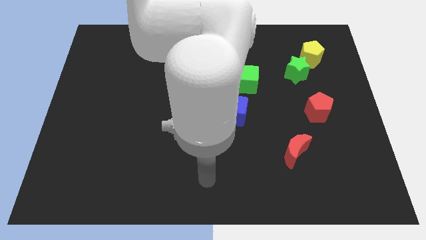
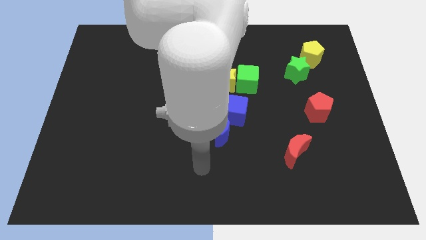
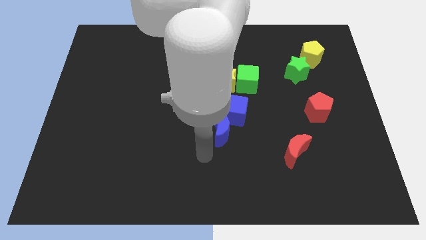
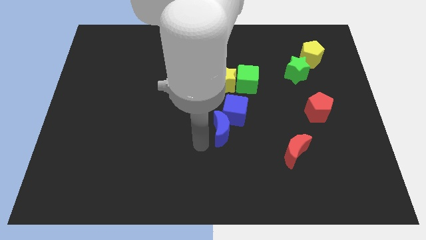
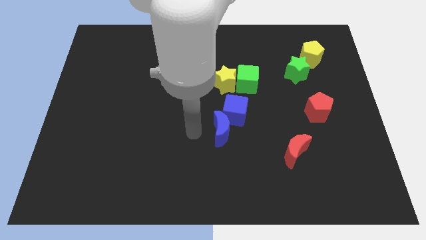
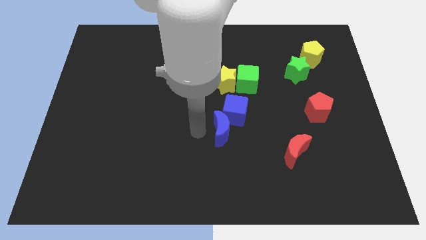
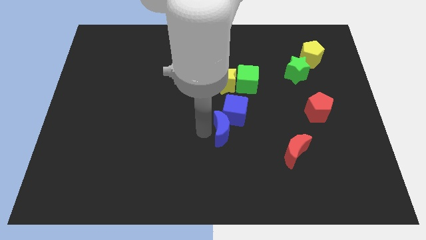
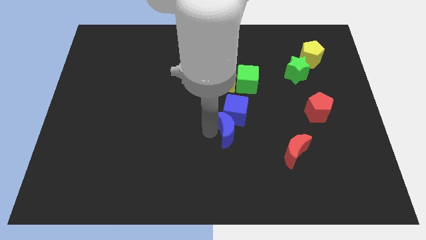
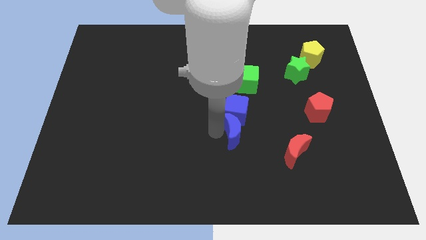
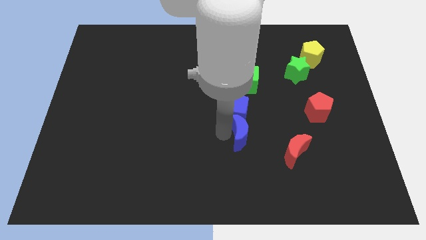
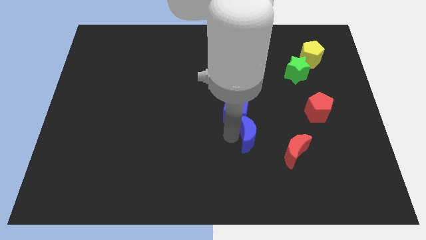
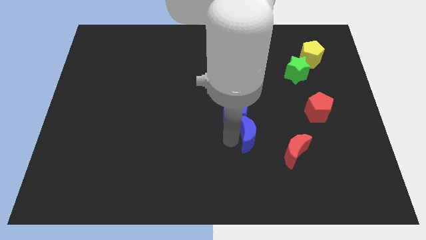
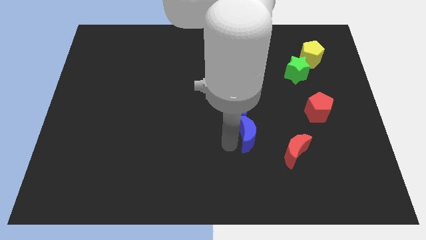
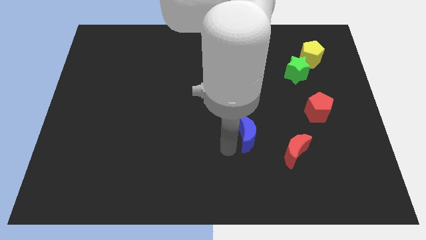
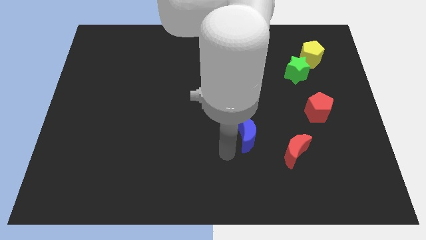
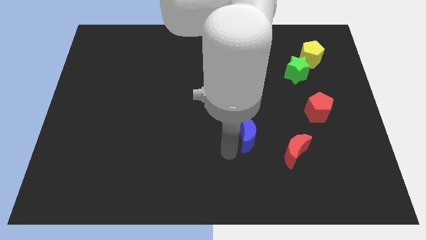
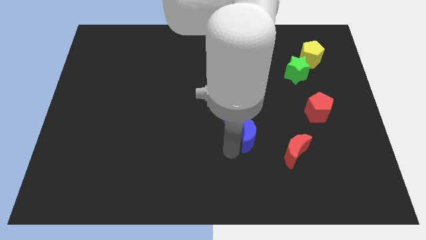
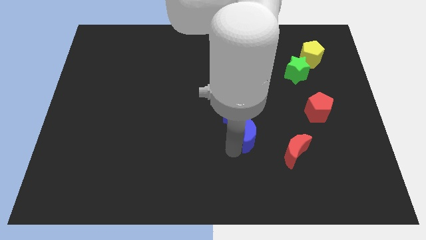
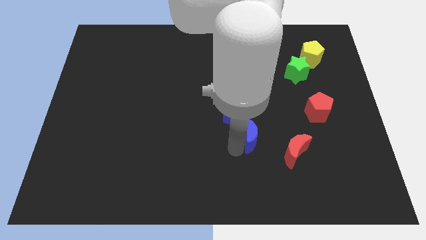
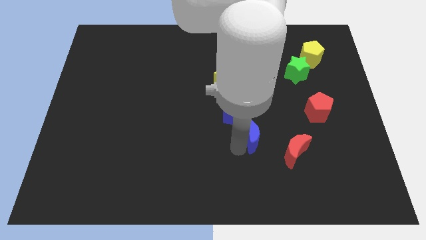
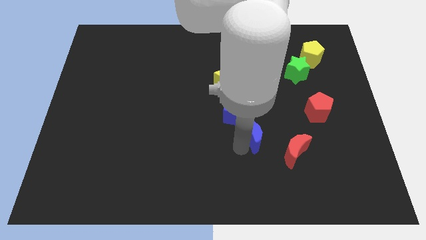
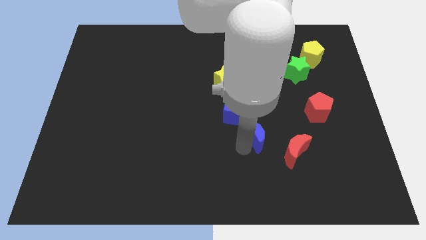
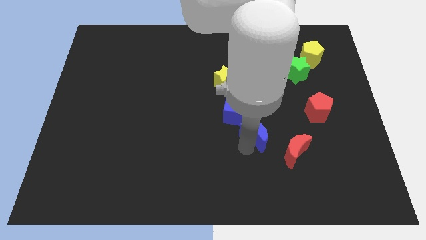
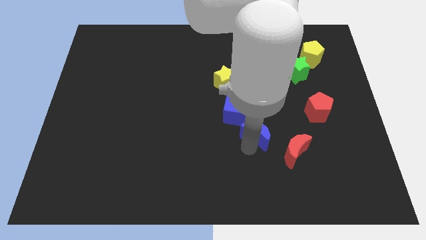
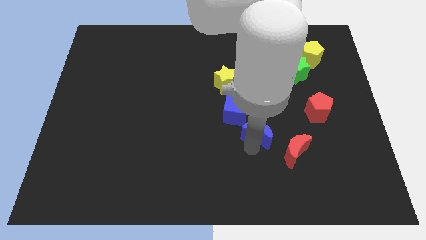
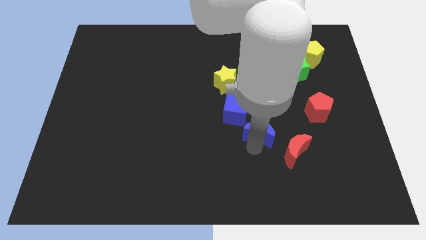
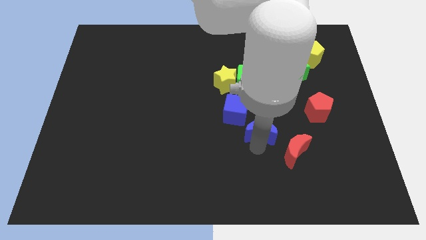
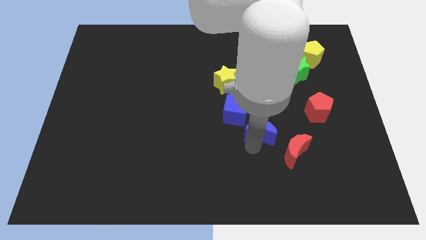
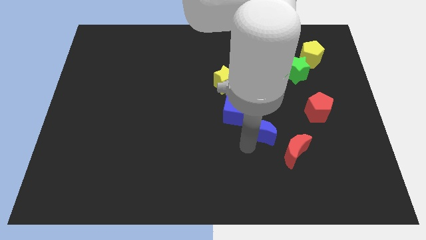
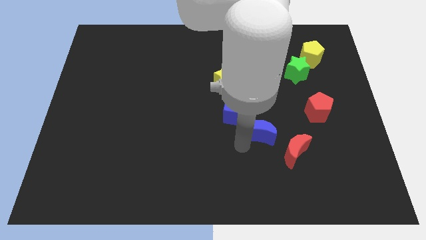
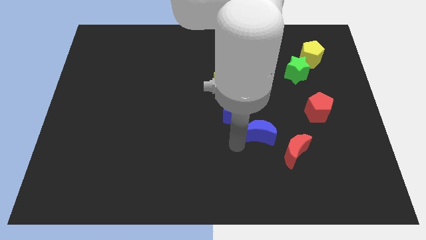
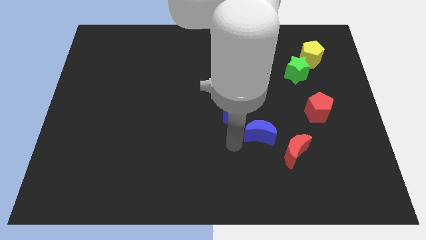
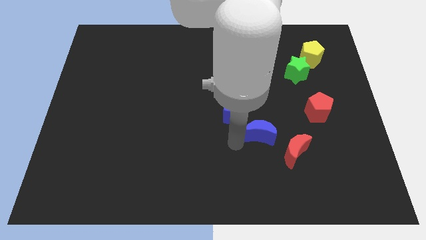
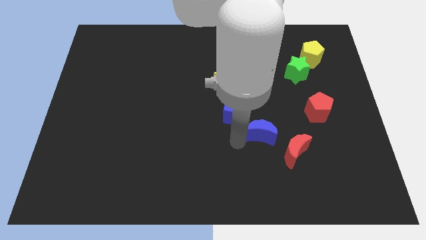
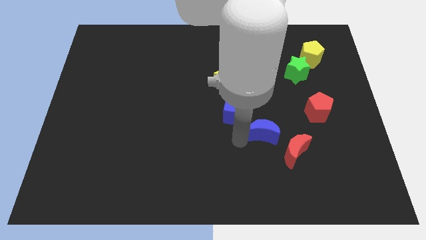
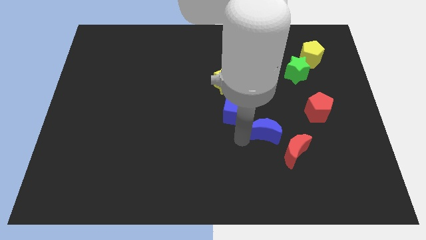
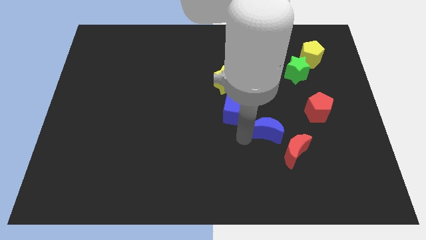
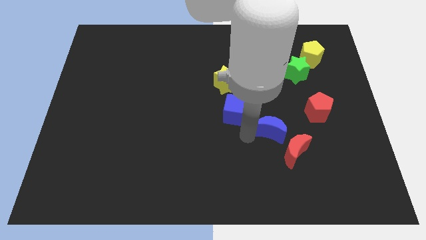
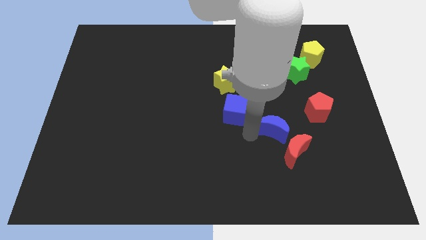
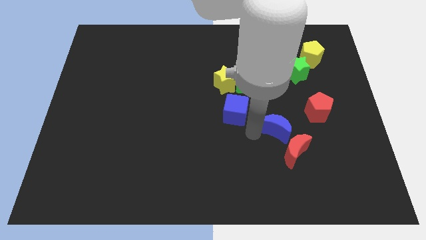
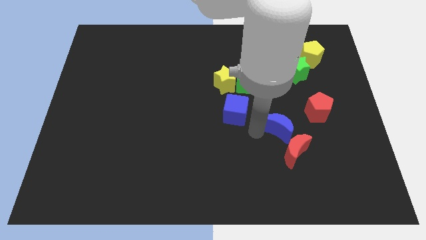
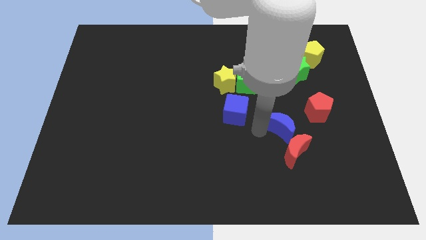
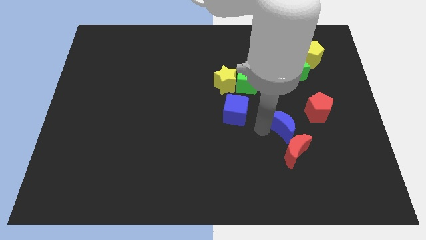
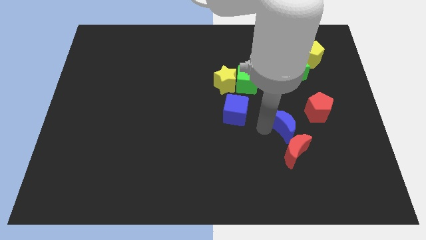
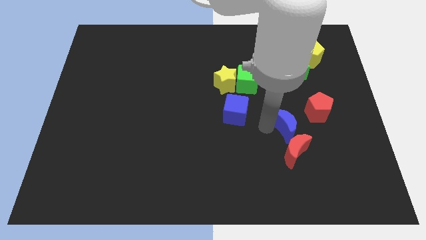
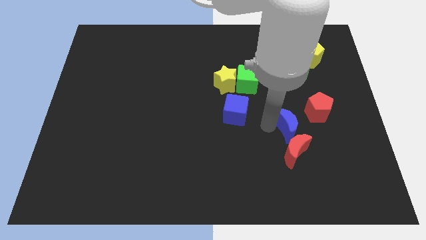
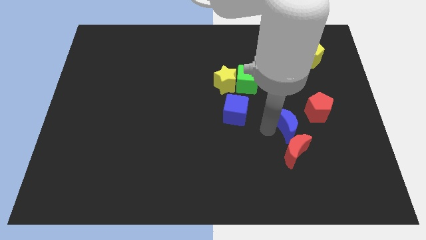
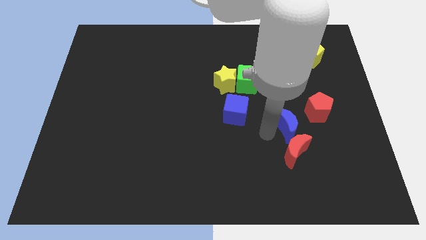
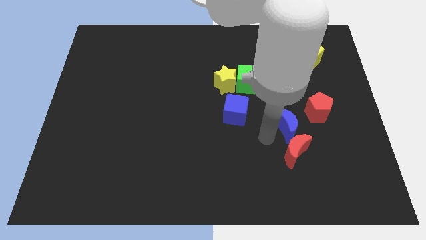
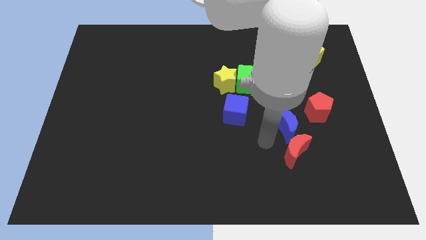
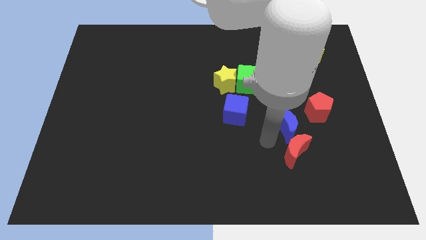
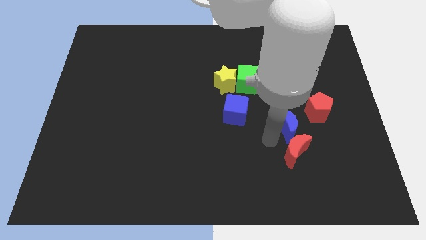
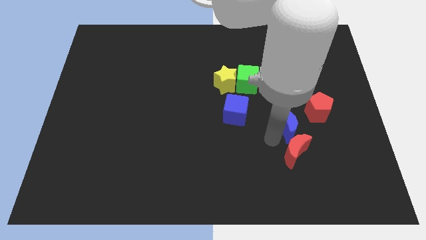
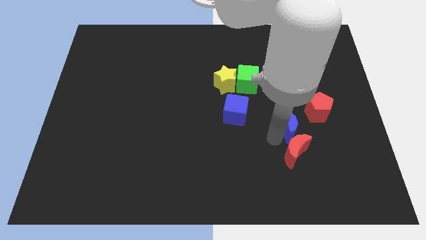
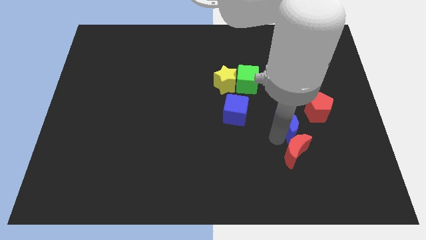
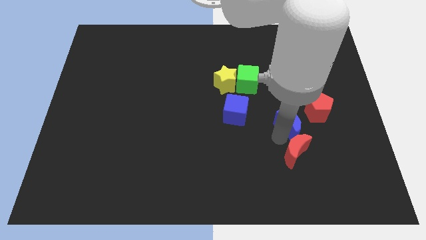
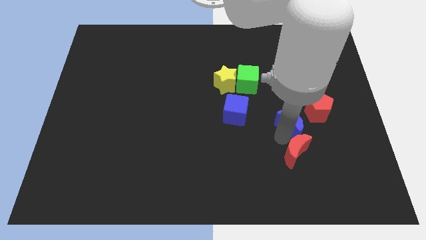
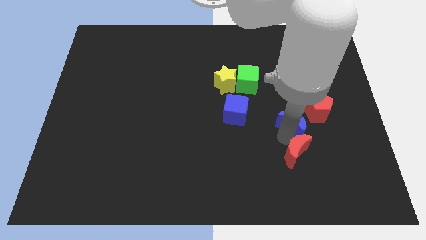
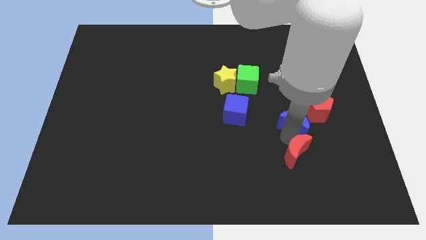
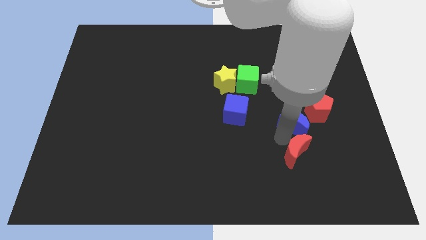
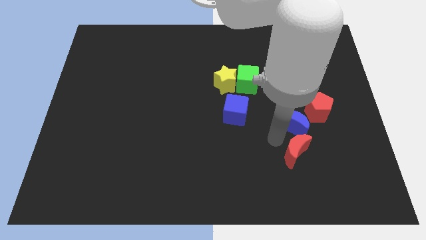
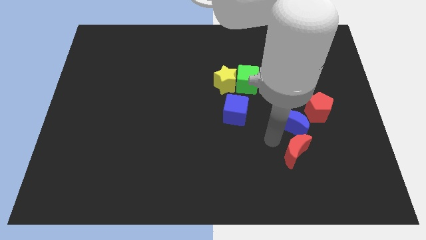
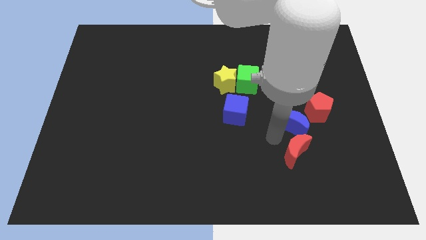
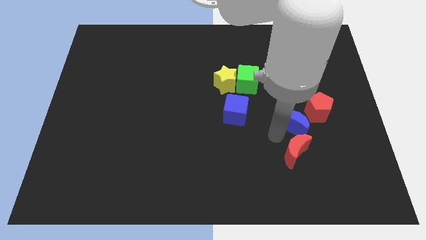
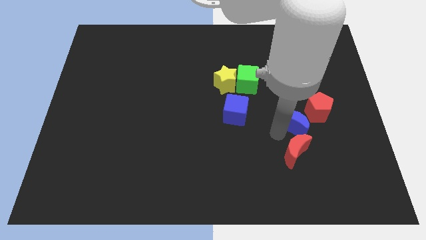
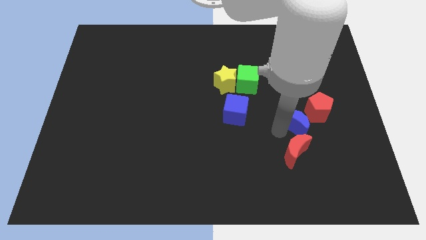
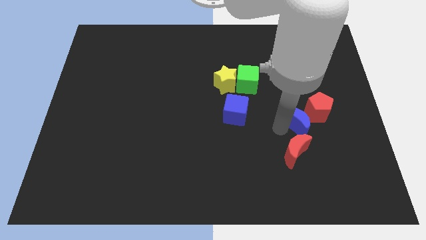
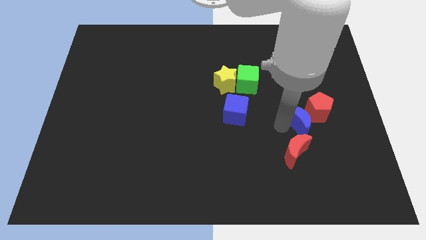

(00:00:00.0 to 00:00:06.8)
push the blue moon to the red pentagon

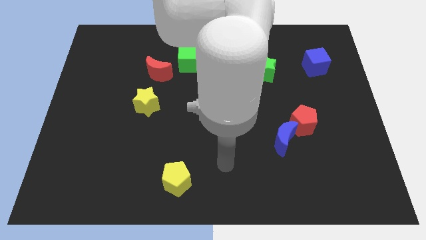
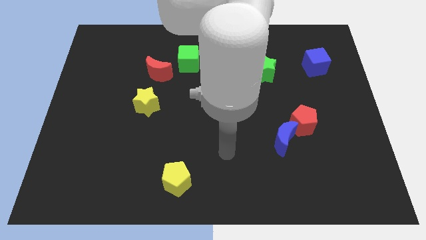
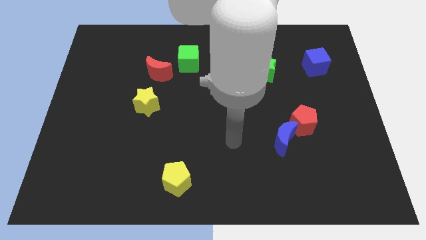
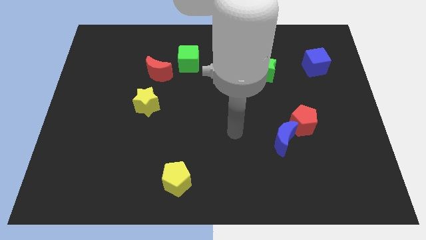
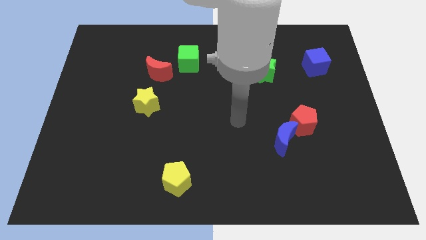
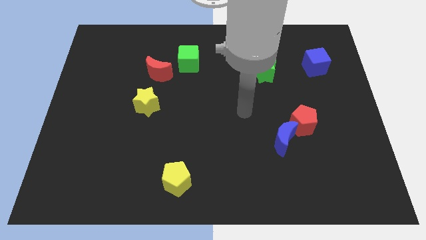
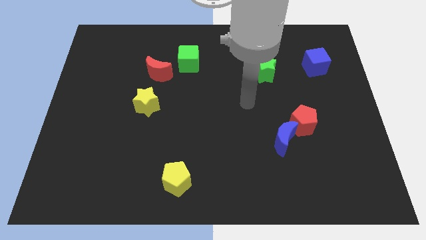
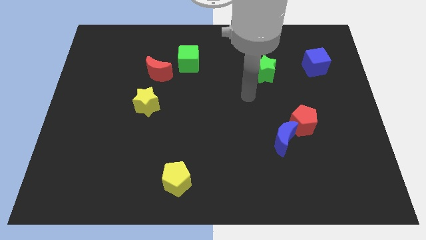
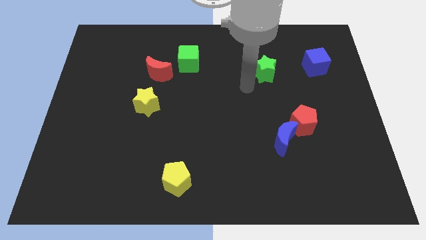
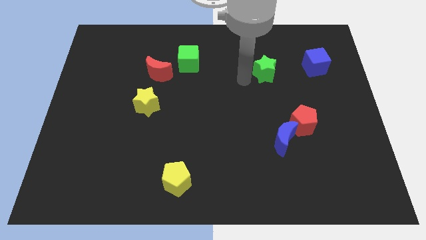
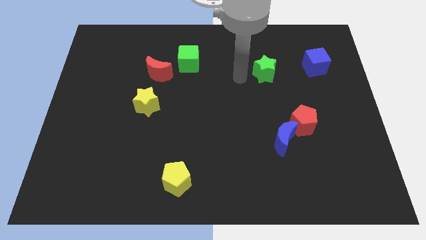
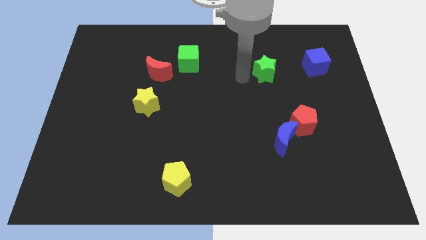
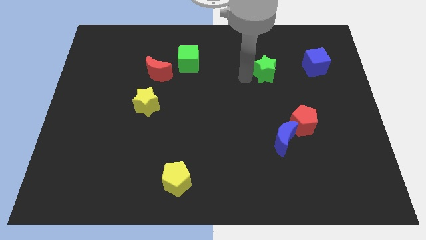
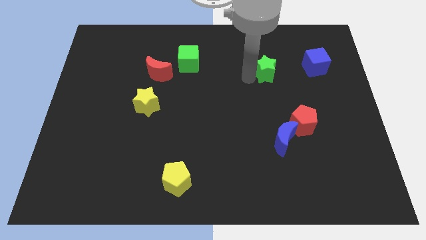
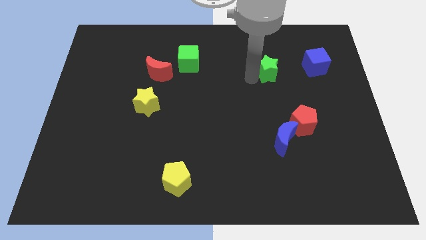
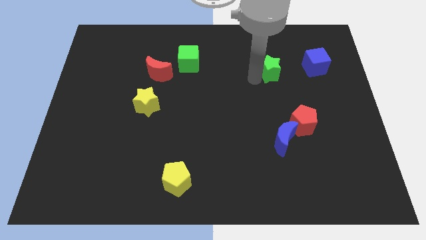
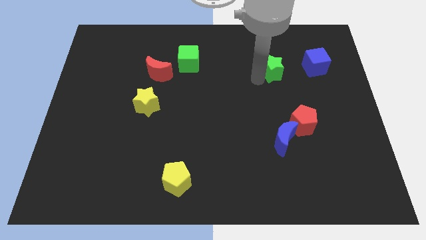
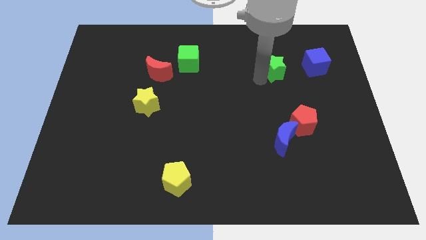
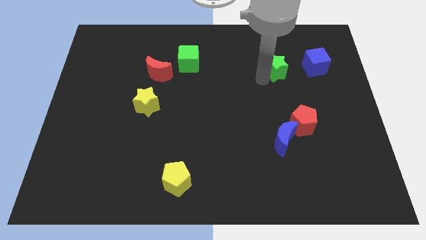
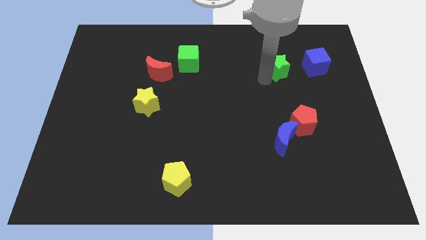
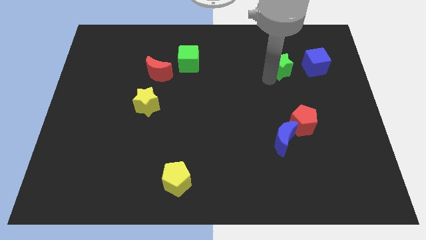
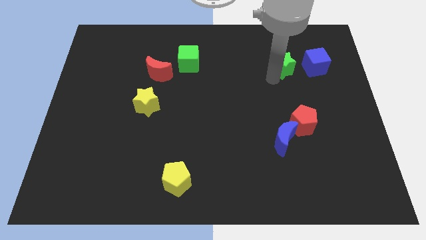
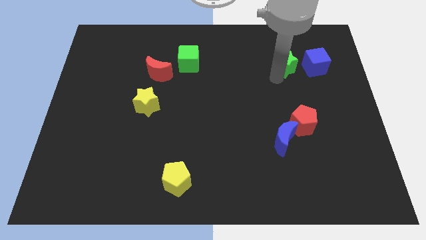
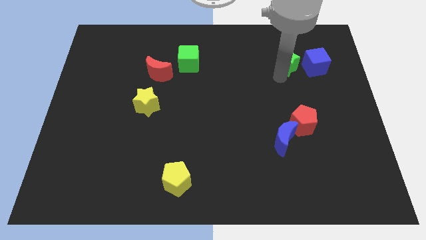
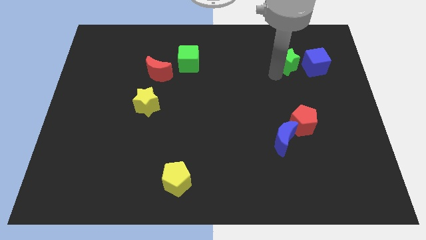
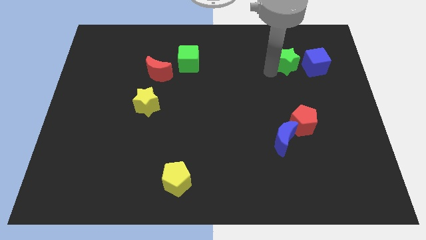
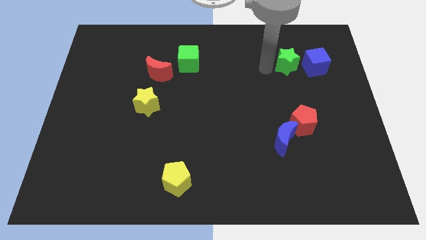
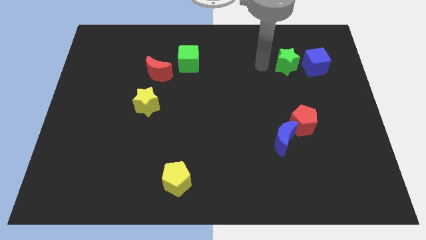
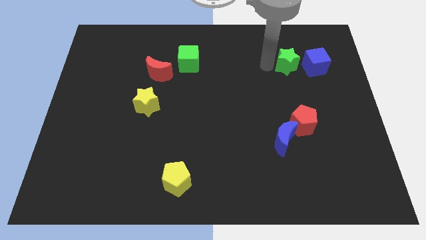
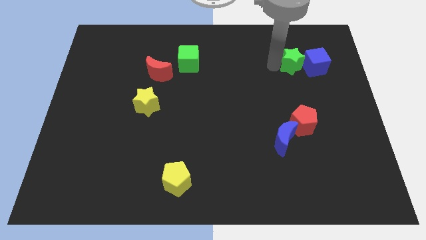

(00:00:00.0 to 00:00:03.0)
move the green star towards the blue cube
